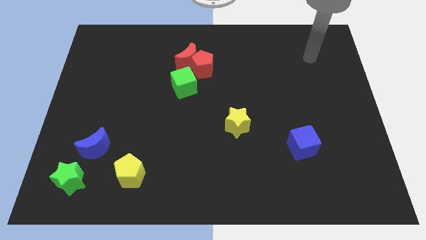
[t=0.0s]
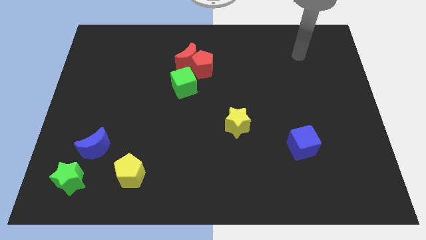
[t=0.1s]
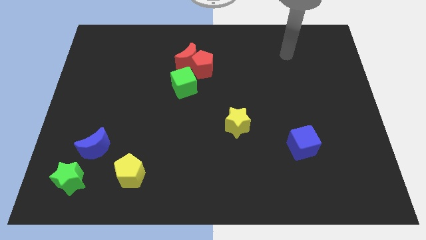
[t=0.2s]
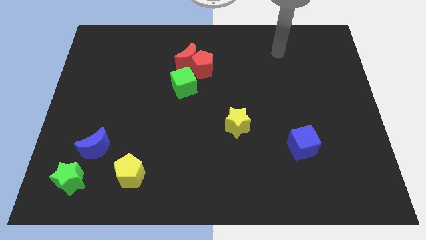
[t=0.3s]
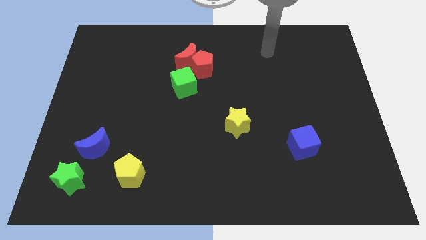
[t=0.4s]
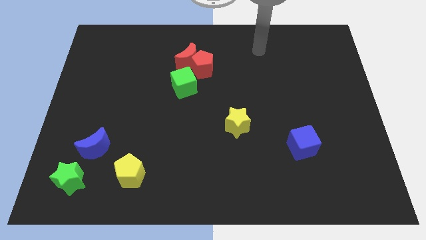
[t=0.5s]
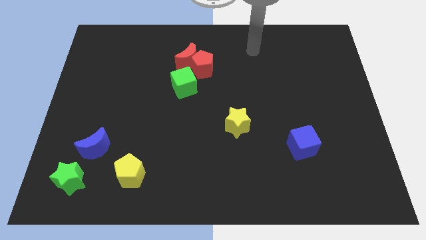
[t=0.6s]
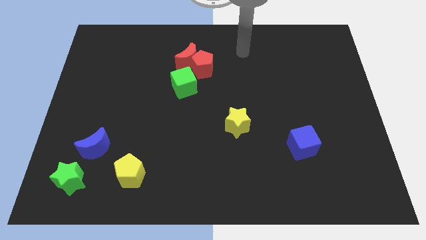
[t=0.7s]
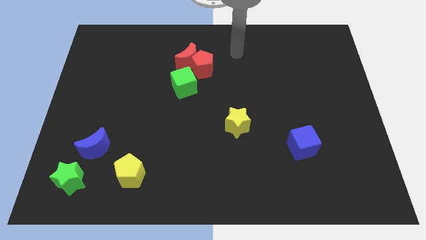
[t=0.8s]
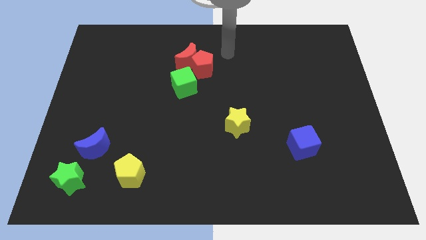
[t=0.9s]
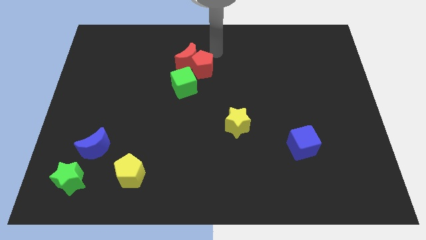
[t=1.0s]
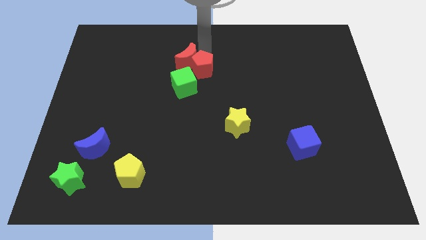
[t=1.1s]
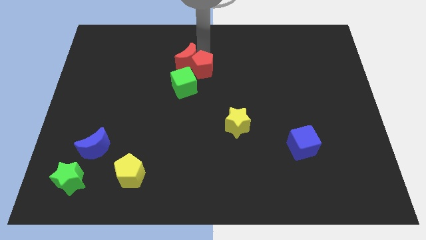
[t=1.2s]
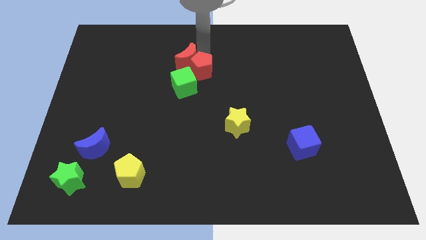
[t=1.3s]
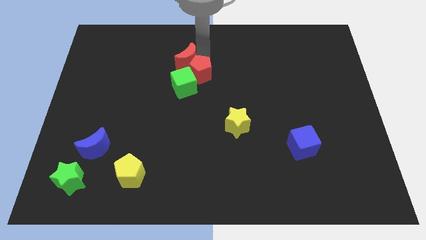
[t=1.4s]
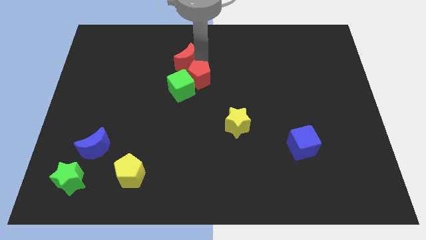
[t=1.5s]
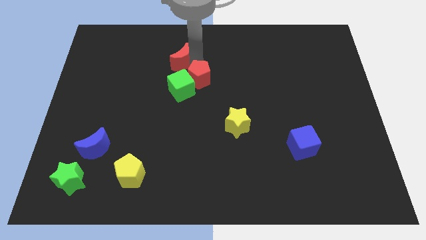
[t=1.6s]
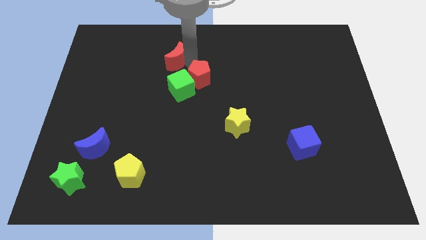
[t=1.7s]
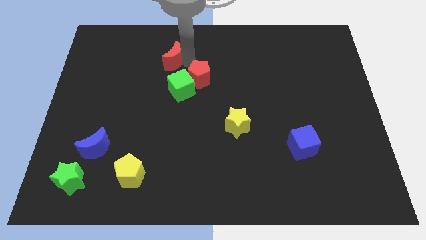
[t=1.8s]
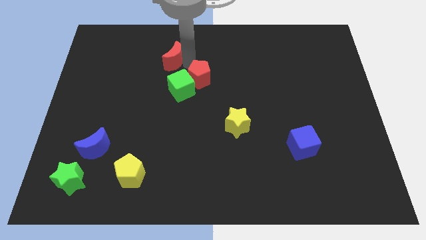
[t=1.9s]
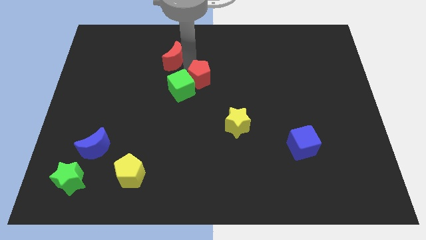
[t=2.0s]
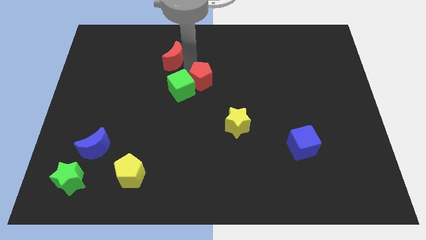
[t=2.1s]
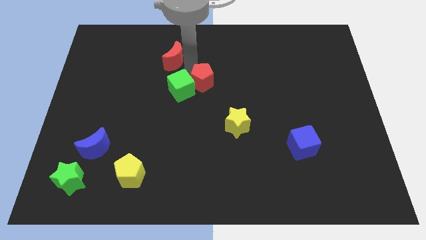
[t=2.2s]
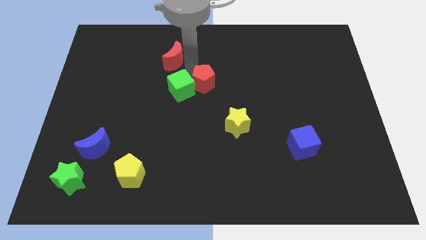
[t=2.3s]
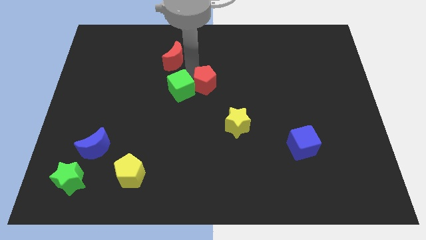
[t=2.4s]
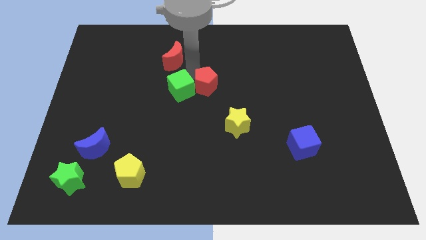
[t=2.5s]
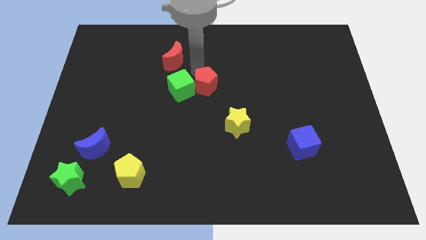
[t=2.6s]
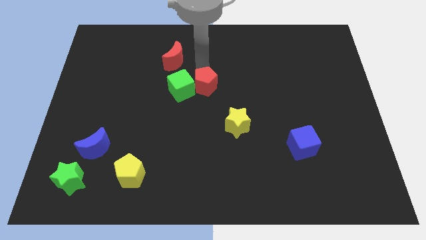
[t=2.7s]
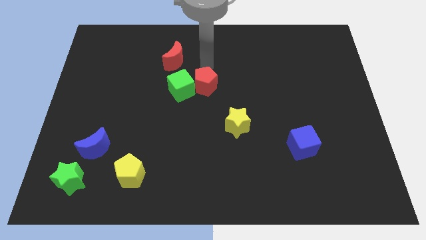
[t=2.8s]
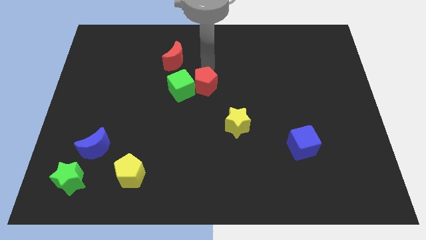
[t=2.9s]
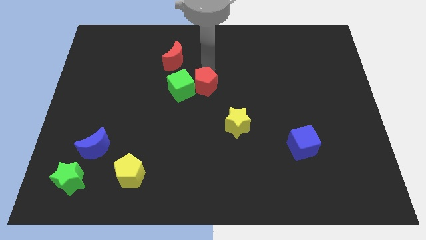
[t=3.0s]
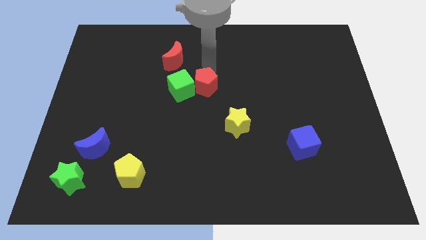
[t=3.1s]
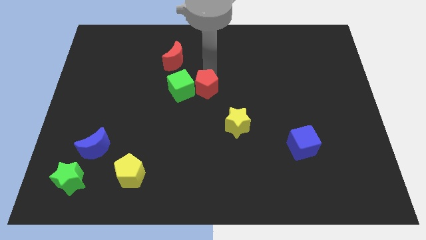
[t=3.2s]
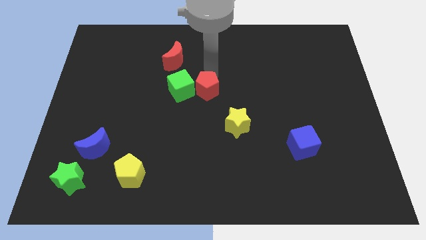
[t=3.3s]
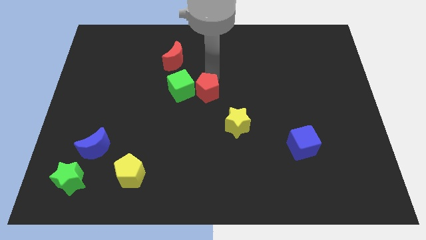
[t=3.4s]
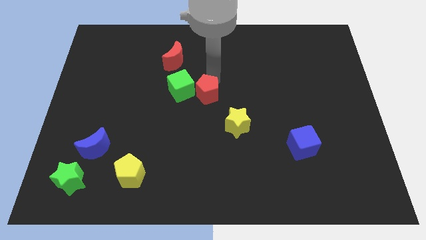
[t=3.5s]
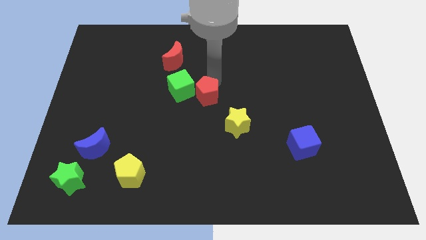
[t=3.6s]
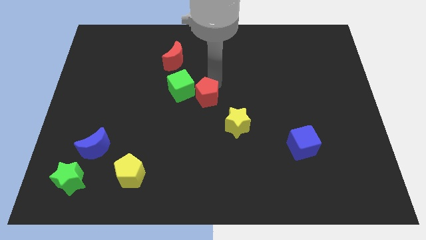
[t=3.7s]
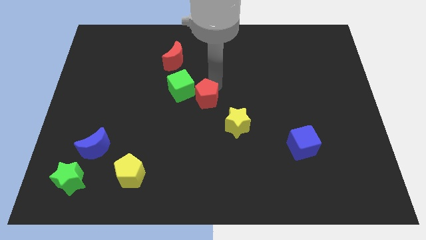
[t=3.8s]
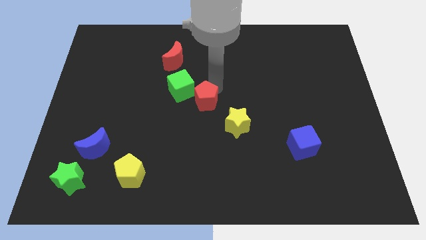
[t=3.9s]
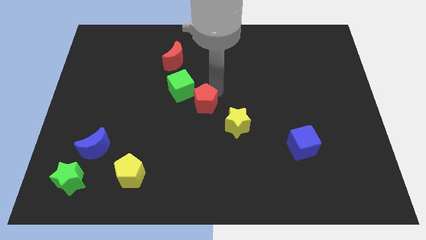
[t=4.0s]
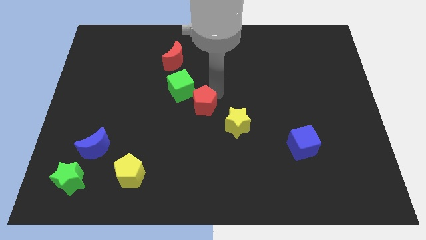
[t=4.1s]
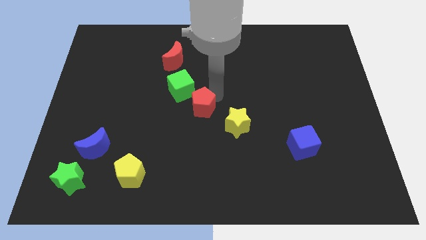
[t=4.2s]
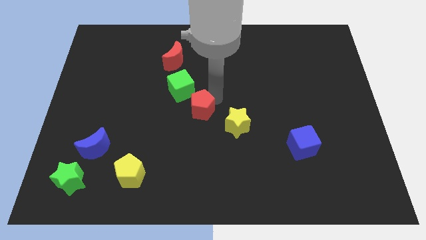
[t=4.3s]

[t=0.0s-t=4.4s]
move the red pentagon just left of the yellow star

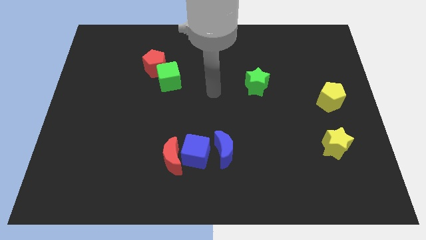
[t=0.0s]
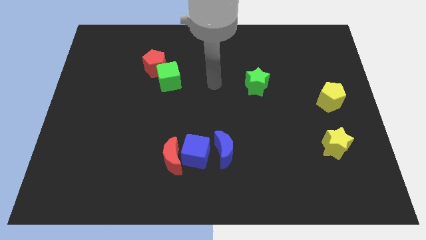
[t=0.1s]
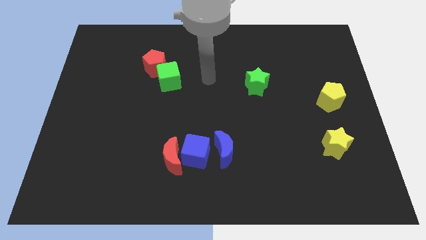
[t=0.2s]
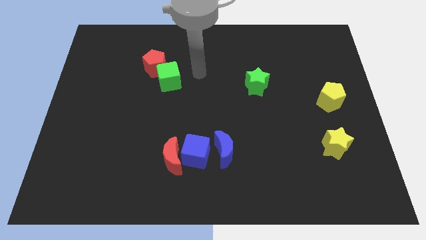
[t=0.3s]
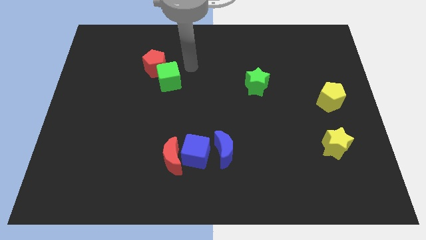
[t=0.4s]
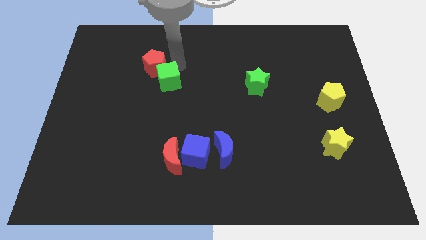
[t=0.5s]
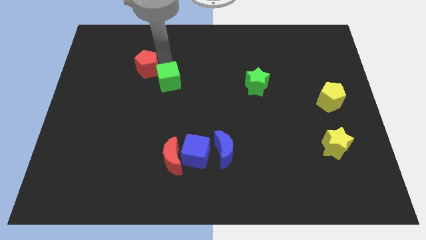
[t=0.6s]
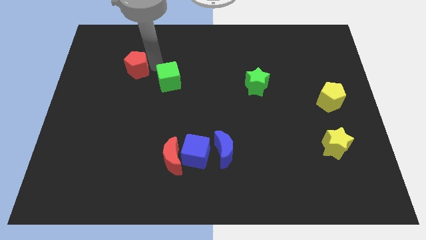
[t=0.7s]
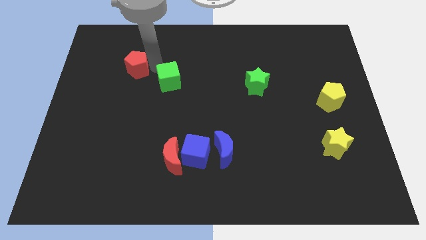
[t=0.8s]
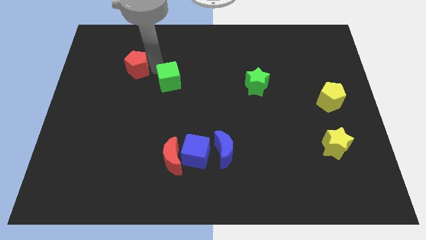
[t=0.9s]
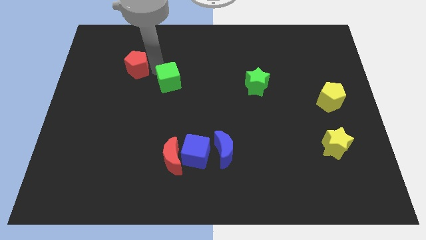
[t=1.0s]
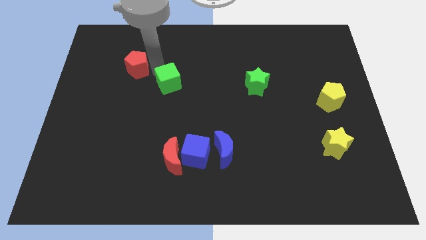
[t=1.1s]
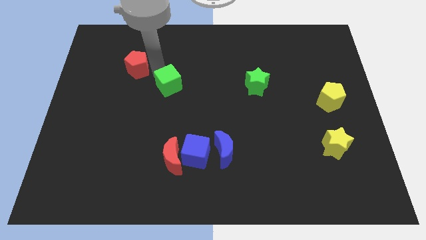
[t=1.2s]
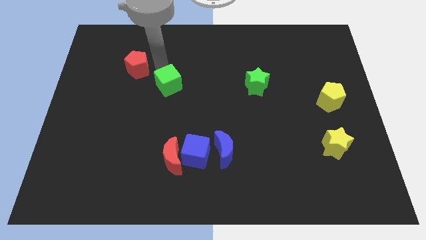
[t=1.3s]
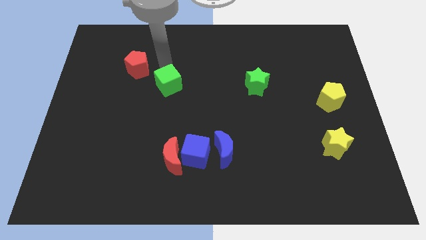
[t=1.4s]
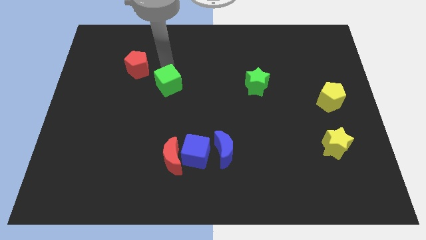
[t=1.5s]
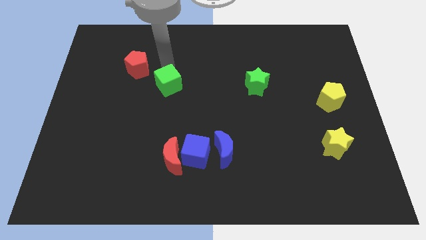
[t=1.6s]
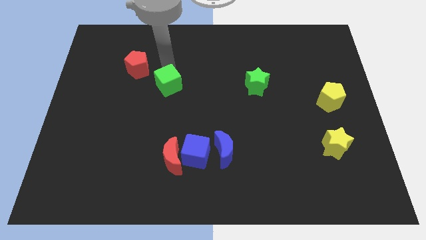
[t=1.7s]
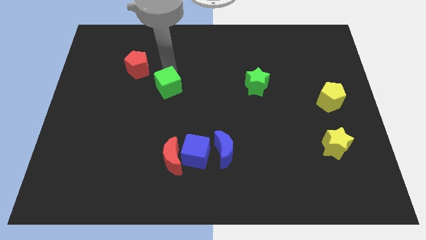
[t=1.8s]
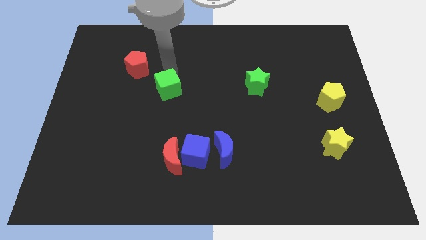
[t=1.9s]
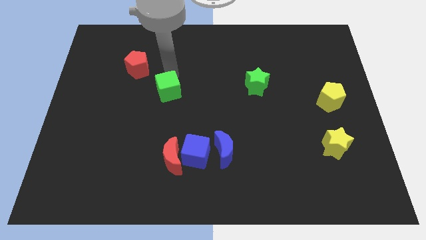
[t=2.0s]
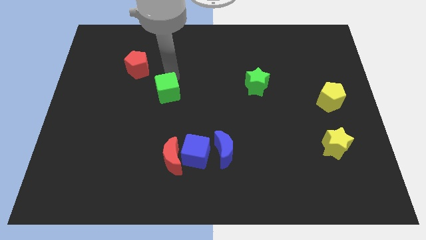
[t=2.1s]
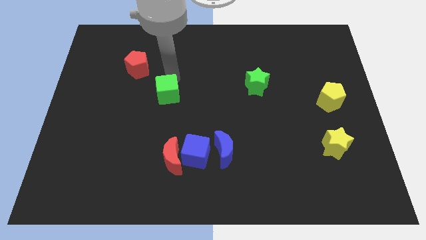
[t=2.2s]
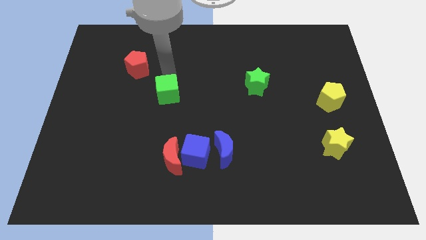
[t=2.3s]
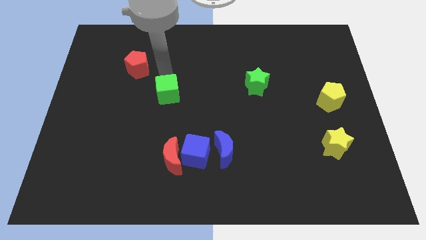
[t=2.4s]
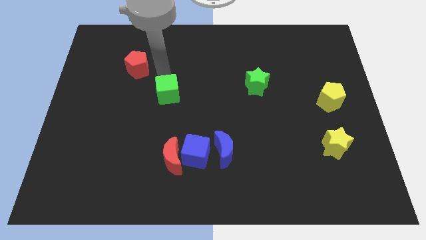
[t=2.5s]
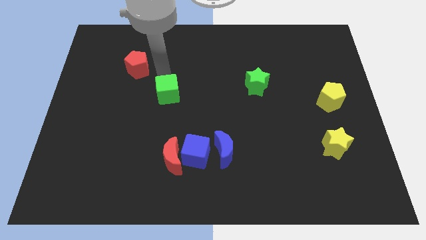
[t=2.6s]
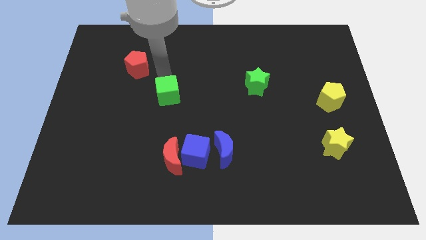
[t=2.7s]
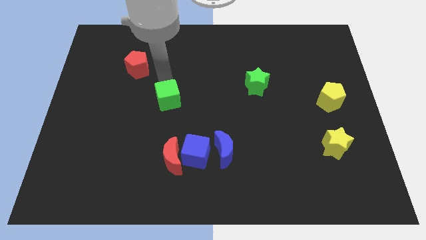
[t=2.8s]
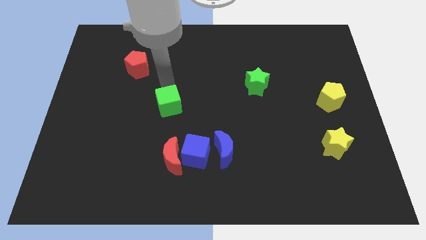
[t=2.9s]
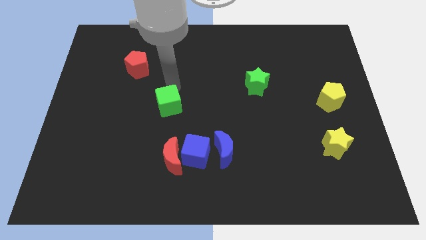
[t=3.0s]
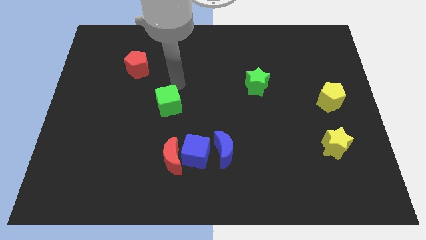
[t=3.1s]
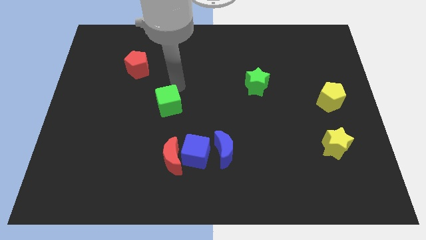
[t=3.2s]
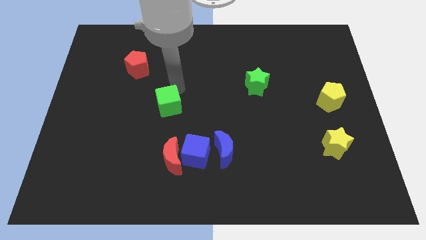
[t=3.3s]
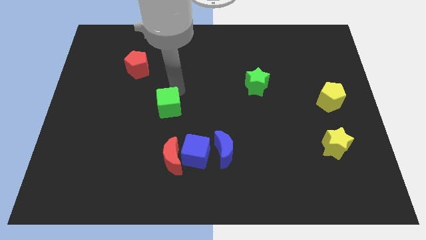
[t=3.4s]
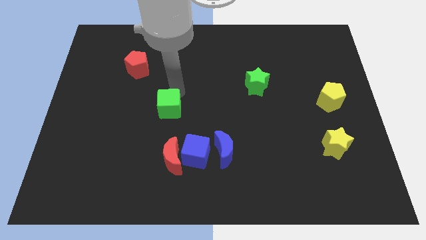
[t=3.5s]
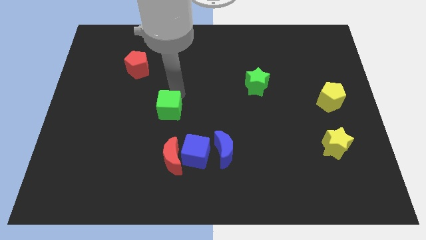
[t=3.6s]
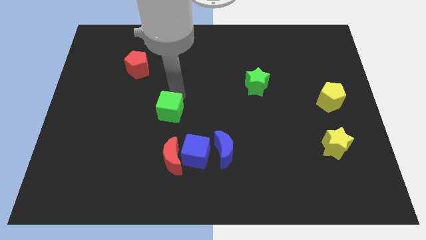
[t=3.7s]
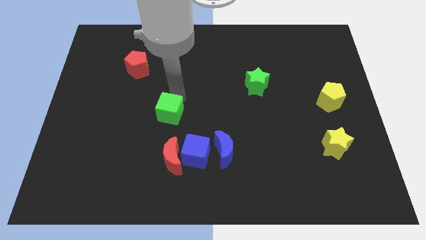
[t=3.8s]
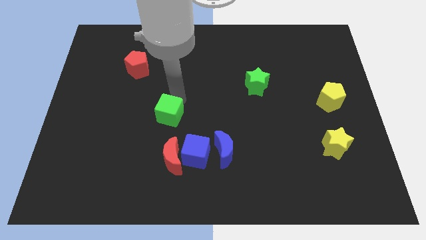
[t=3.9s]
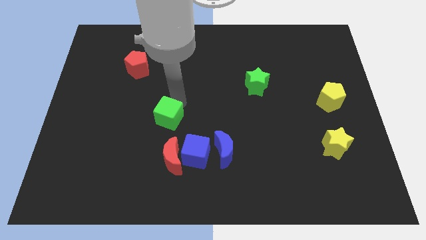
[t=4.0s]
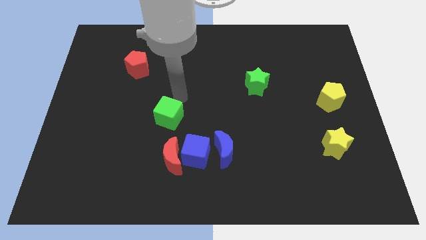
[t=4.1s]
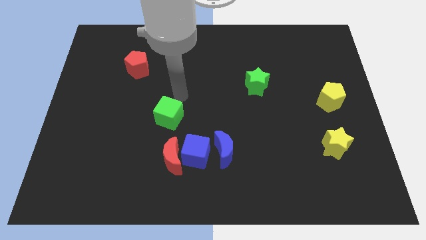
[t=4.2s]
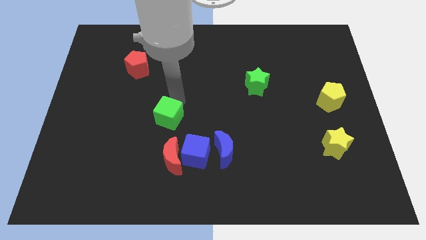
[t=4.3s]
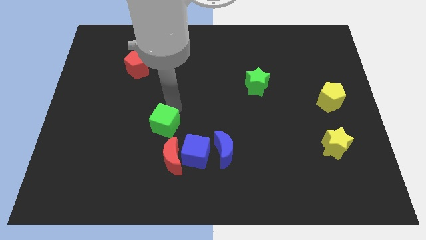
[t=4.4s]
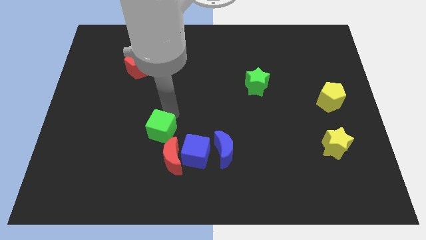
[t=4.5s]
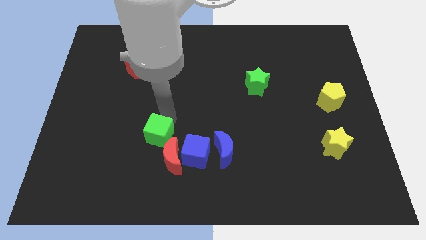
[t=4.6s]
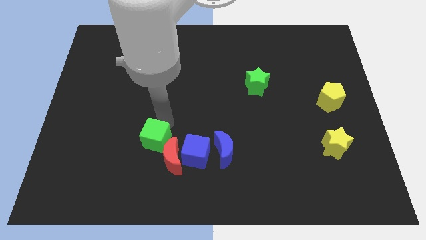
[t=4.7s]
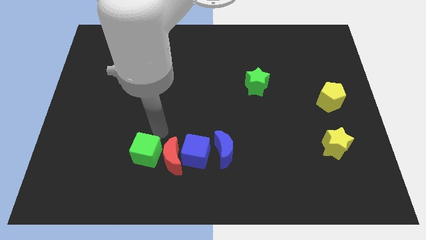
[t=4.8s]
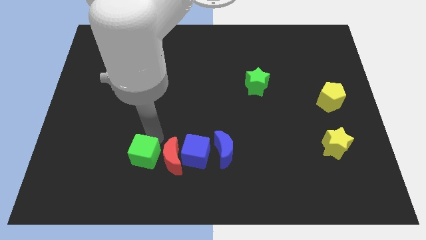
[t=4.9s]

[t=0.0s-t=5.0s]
push the green cube to the bottom left of the red moon
